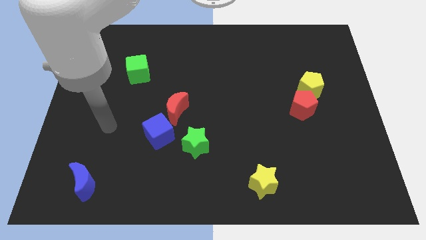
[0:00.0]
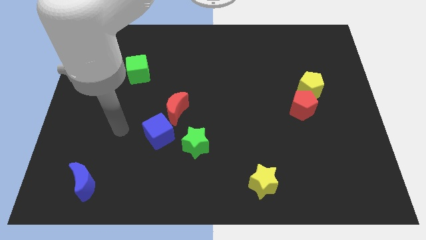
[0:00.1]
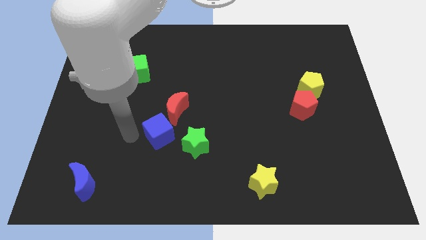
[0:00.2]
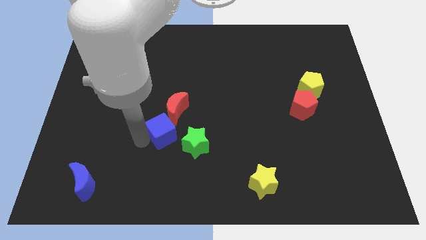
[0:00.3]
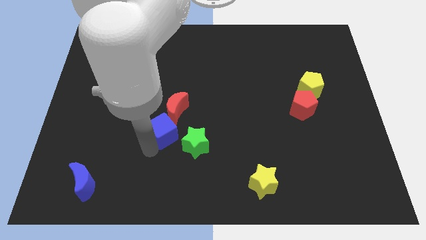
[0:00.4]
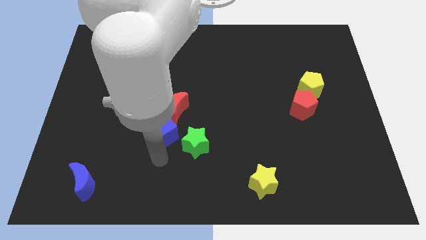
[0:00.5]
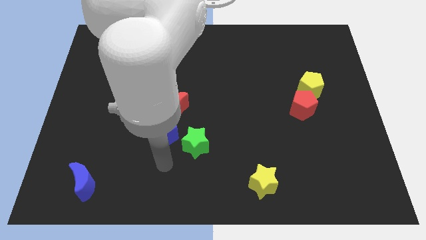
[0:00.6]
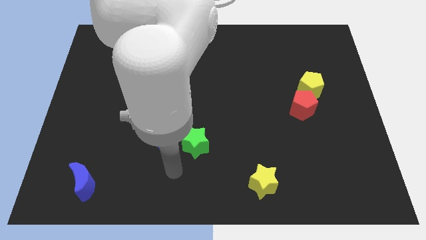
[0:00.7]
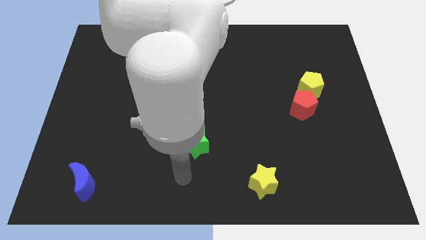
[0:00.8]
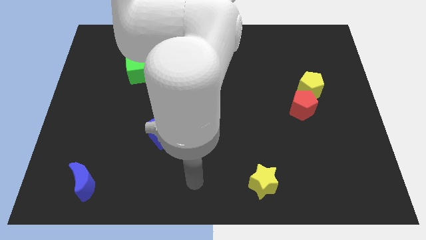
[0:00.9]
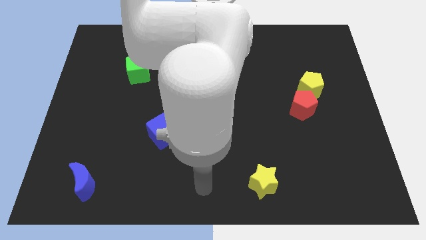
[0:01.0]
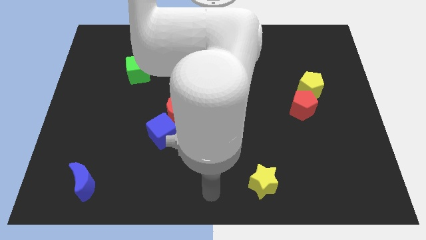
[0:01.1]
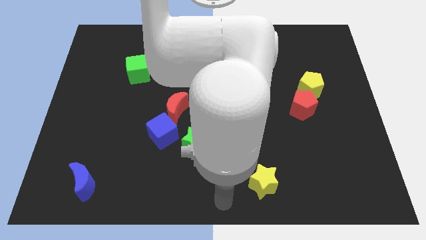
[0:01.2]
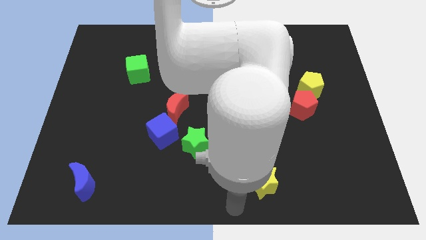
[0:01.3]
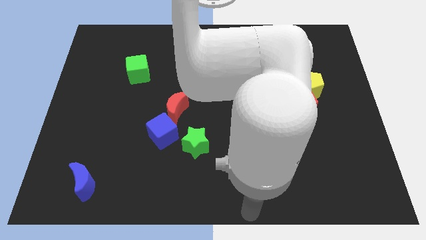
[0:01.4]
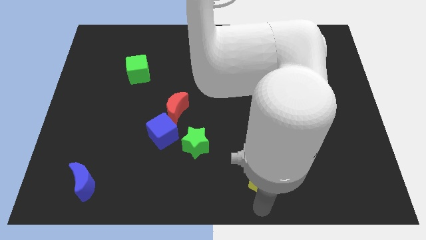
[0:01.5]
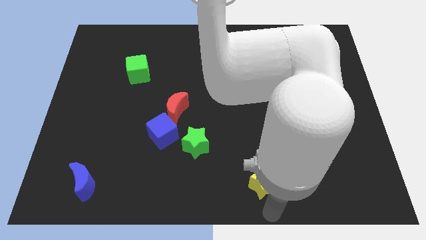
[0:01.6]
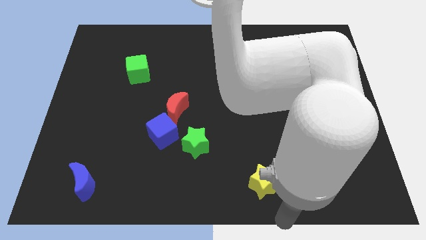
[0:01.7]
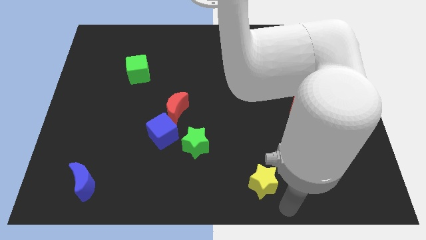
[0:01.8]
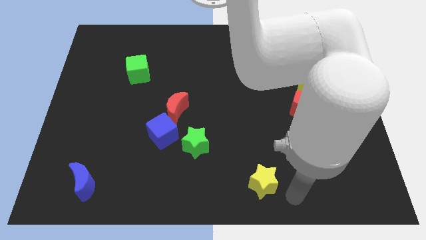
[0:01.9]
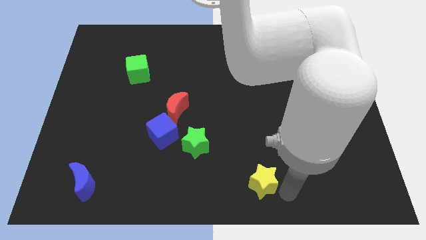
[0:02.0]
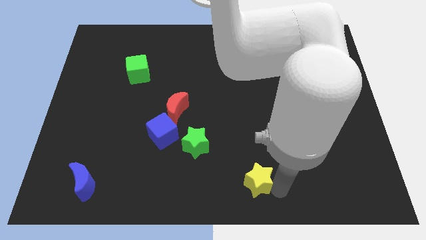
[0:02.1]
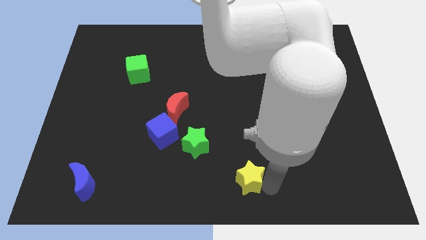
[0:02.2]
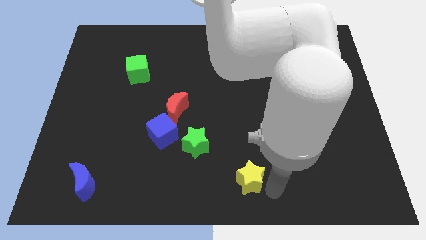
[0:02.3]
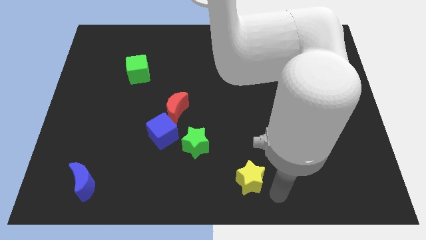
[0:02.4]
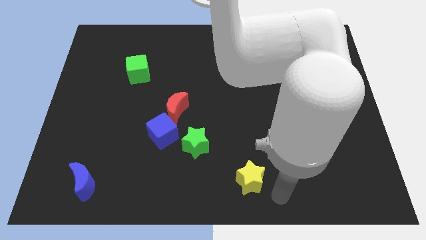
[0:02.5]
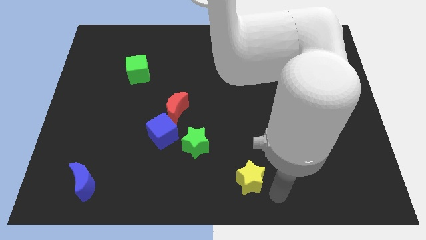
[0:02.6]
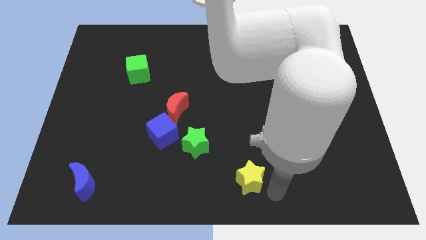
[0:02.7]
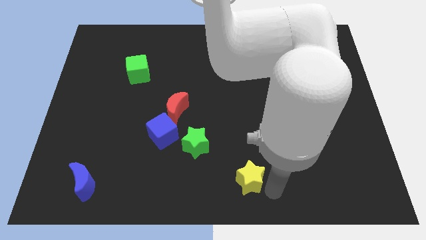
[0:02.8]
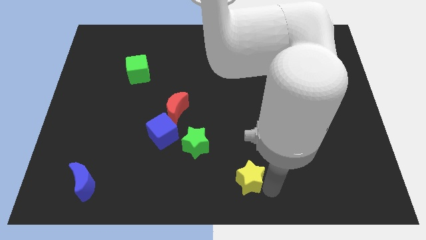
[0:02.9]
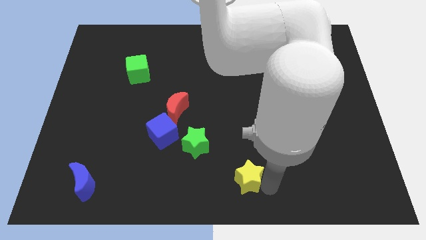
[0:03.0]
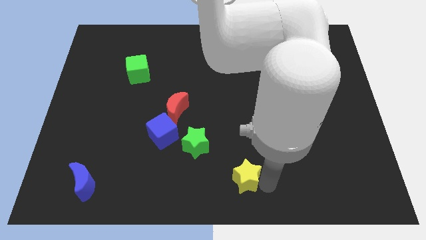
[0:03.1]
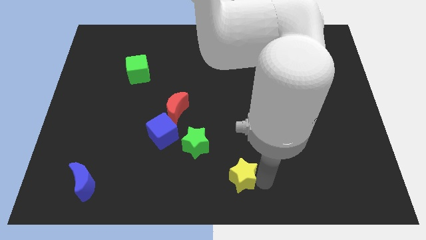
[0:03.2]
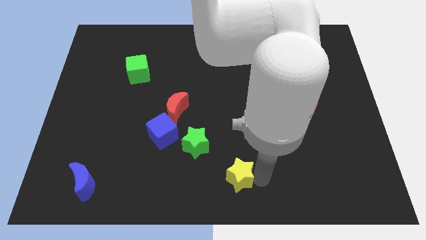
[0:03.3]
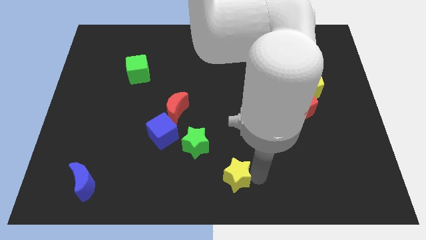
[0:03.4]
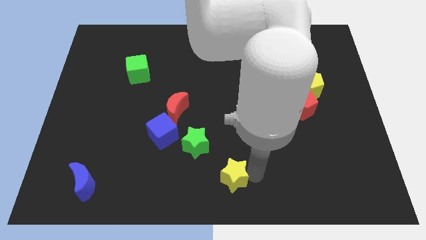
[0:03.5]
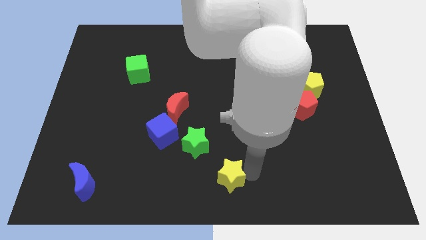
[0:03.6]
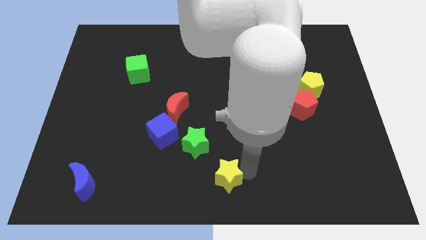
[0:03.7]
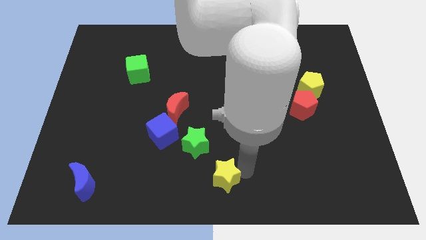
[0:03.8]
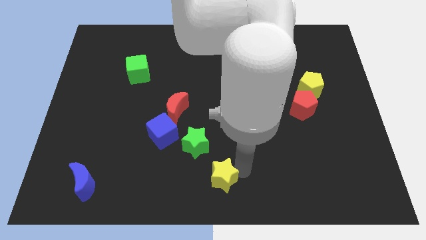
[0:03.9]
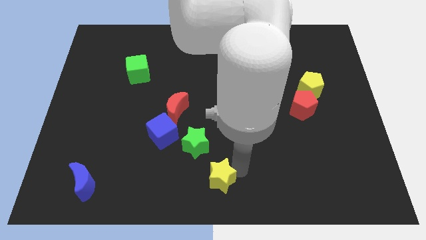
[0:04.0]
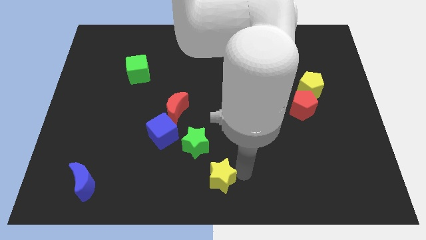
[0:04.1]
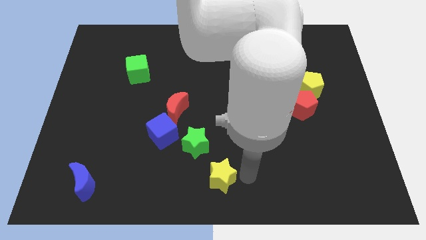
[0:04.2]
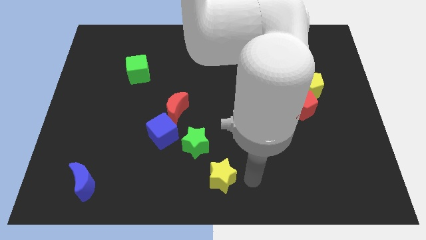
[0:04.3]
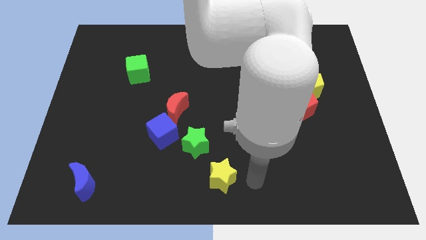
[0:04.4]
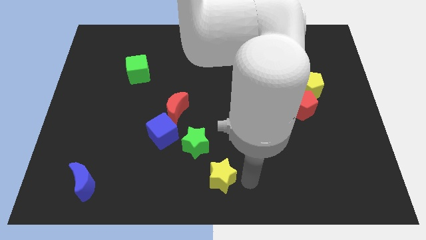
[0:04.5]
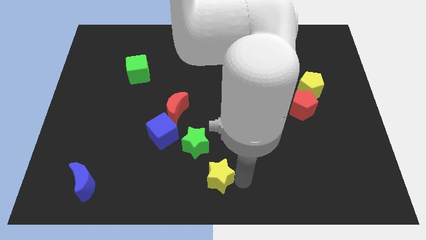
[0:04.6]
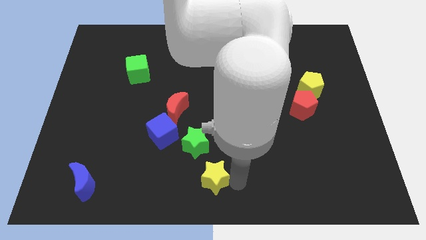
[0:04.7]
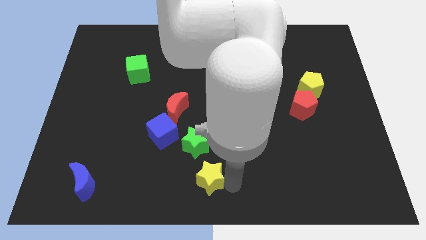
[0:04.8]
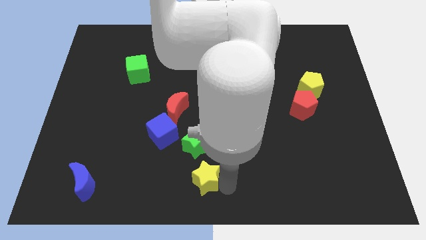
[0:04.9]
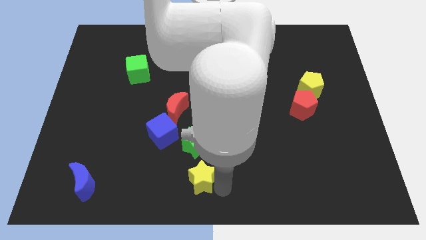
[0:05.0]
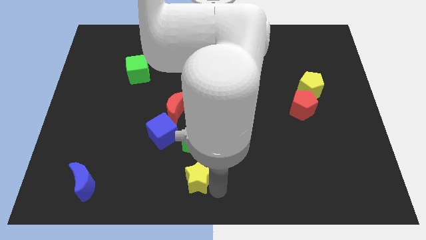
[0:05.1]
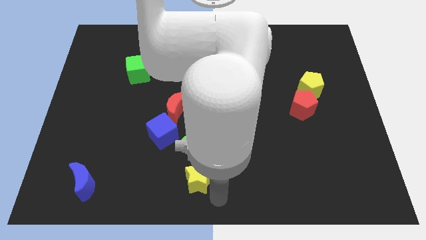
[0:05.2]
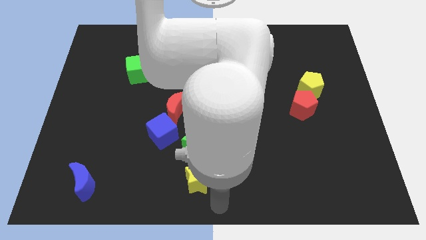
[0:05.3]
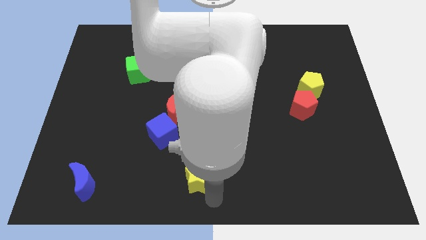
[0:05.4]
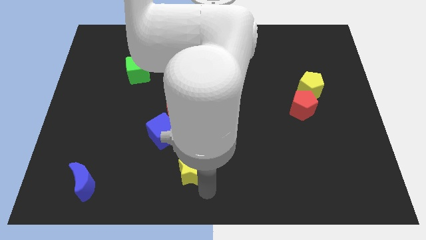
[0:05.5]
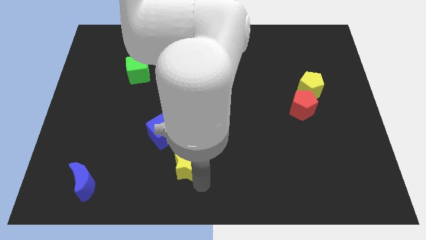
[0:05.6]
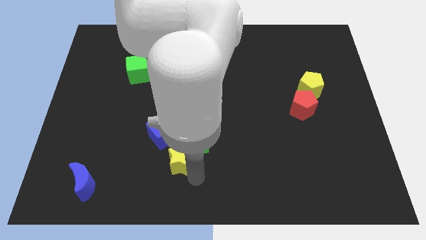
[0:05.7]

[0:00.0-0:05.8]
move the yellow star to the bottom of the red moon

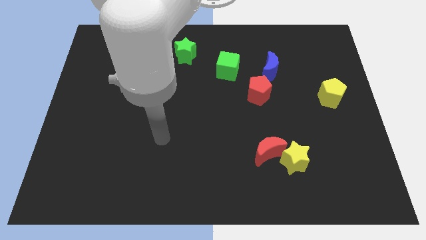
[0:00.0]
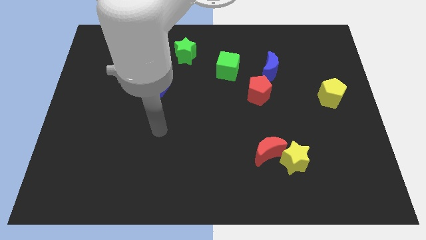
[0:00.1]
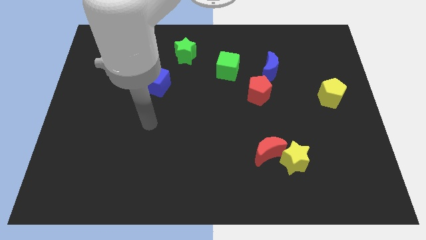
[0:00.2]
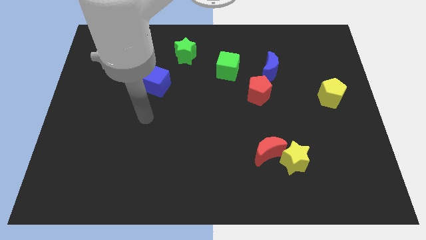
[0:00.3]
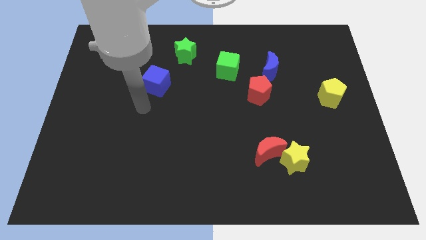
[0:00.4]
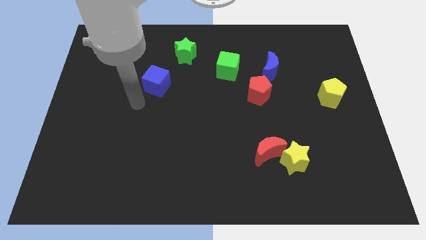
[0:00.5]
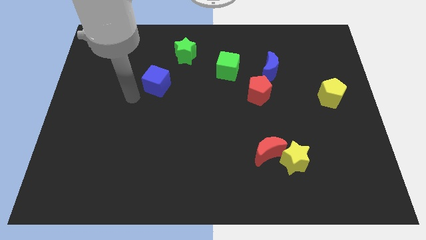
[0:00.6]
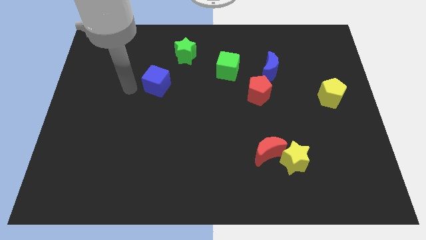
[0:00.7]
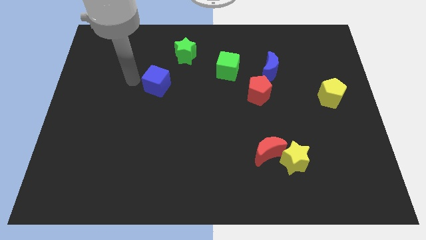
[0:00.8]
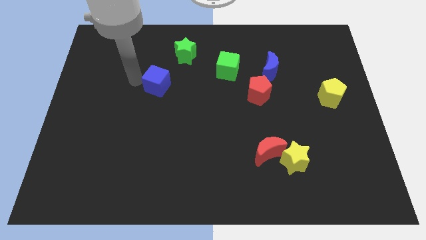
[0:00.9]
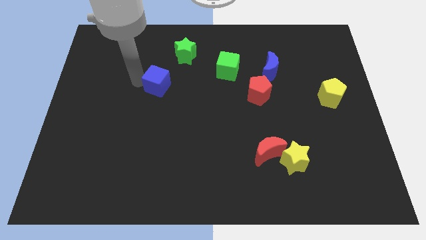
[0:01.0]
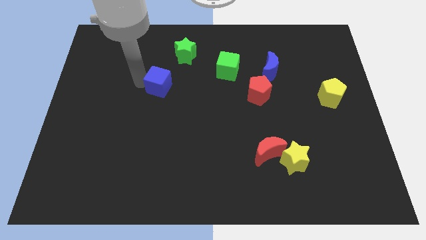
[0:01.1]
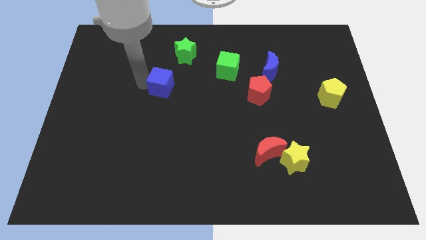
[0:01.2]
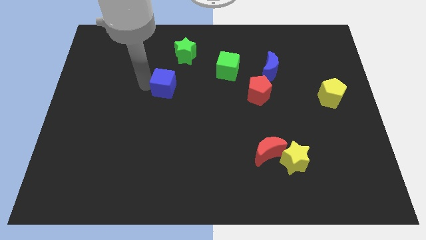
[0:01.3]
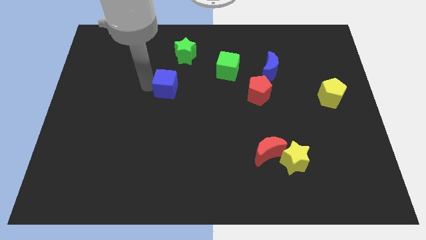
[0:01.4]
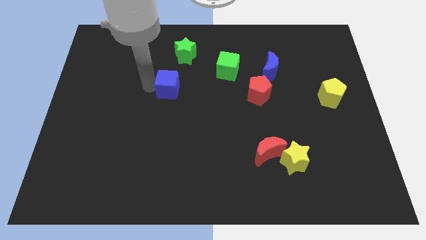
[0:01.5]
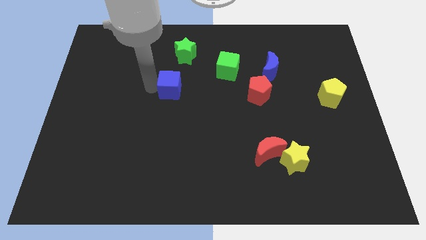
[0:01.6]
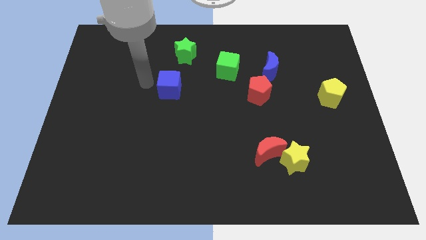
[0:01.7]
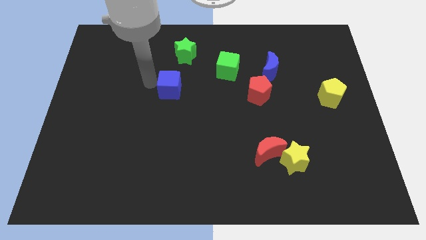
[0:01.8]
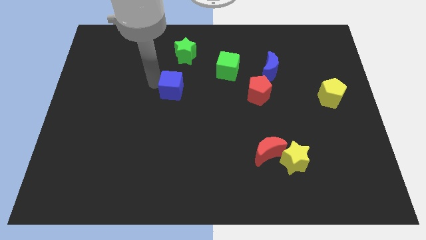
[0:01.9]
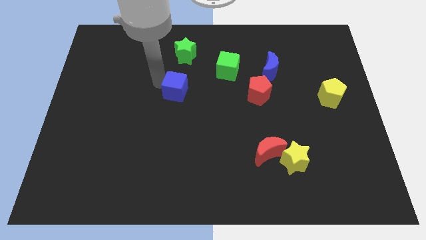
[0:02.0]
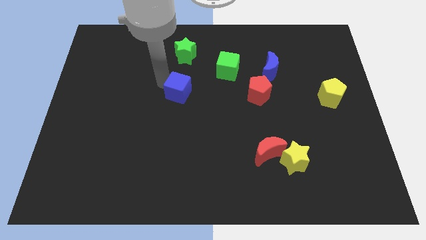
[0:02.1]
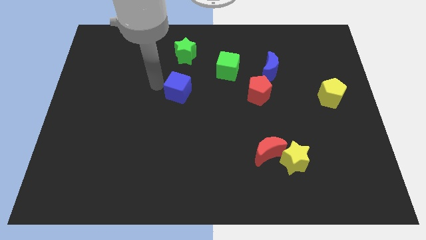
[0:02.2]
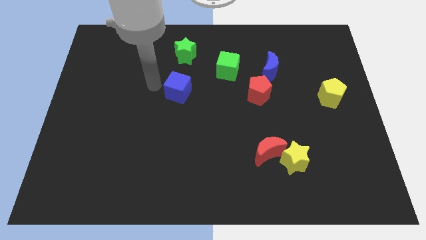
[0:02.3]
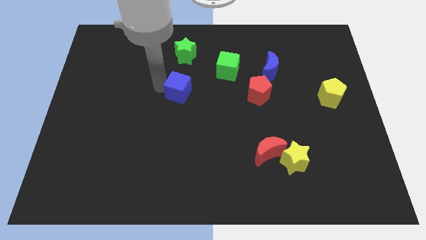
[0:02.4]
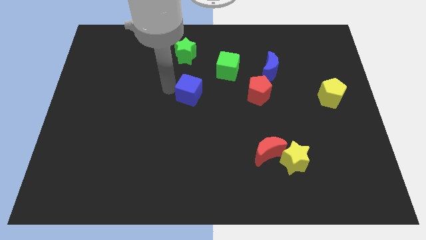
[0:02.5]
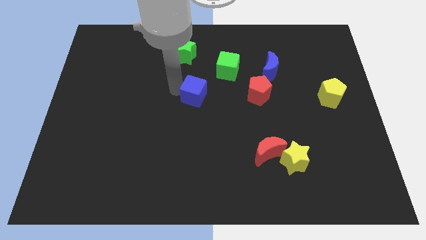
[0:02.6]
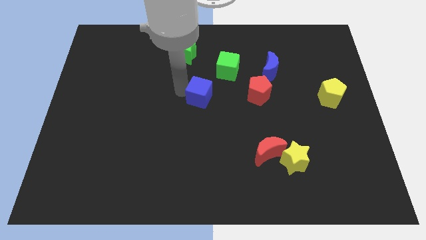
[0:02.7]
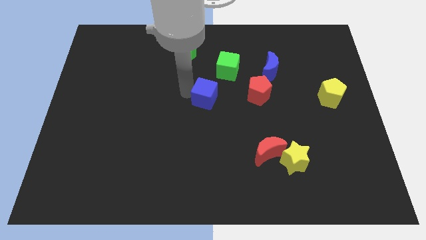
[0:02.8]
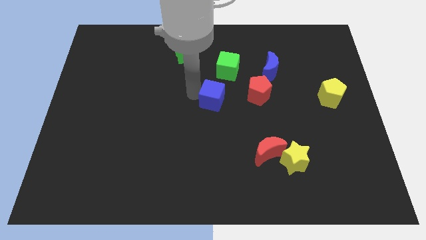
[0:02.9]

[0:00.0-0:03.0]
put the blue cube to the bottom side of the green cube
